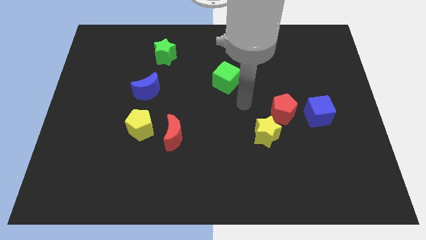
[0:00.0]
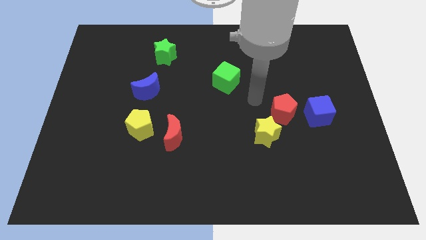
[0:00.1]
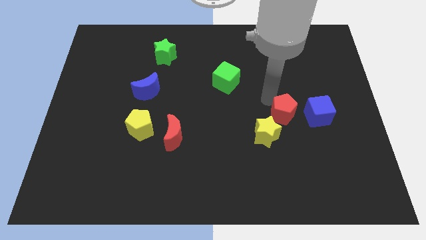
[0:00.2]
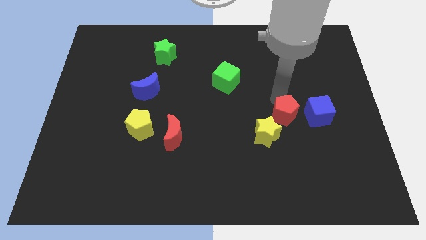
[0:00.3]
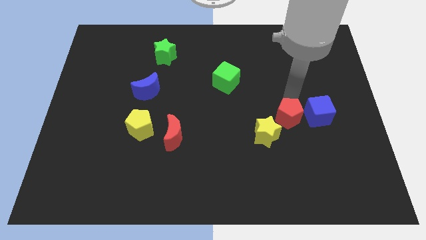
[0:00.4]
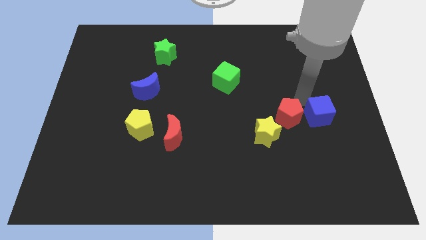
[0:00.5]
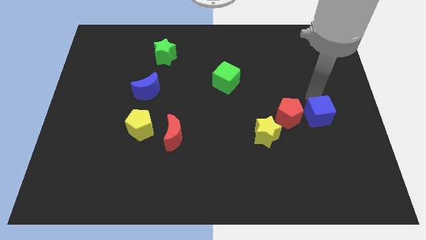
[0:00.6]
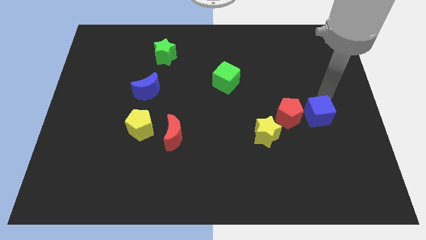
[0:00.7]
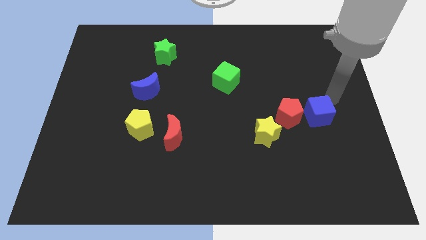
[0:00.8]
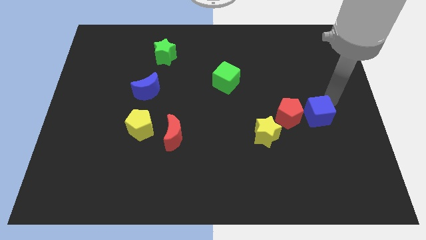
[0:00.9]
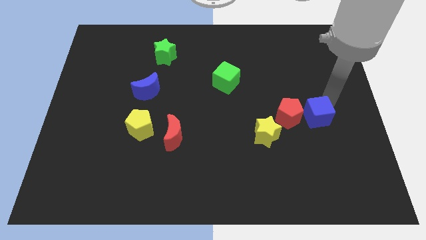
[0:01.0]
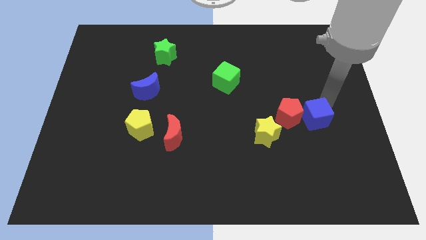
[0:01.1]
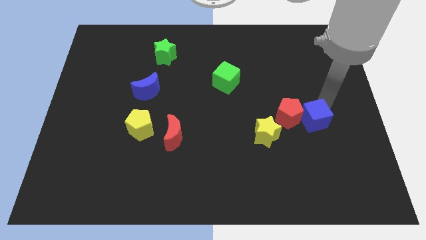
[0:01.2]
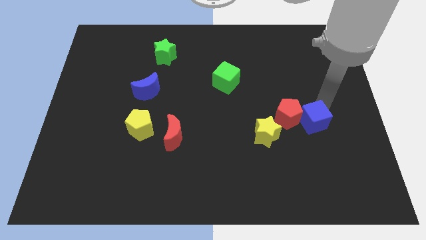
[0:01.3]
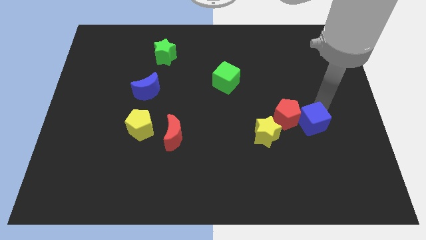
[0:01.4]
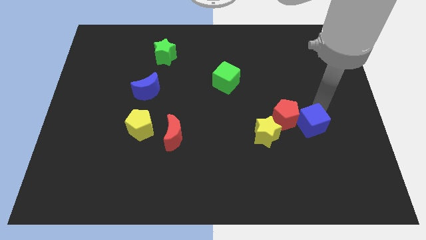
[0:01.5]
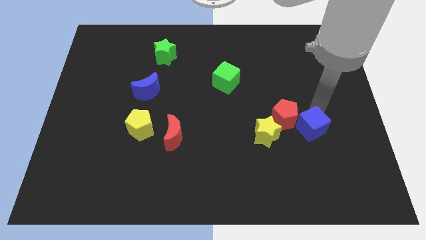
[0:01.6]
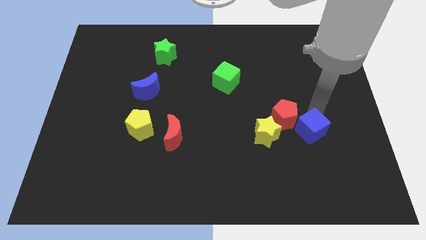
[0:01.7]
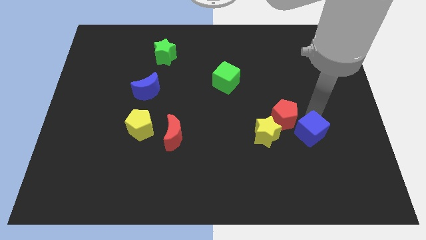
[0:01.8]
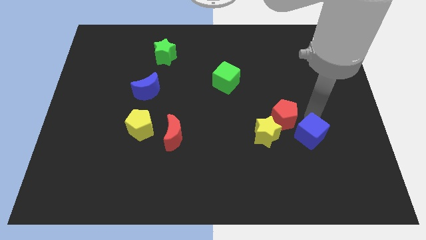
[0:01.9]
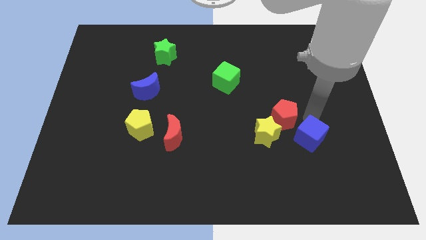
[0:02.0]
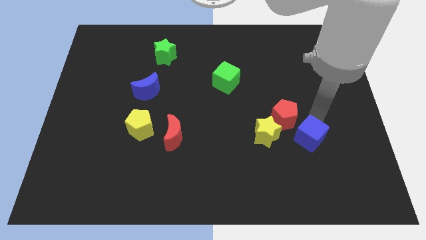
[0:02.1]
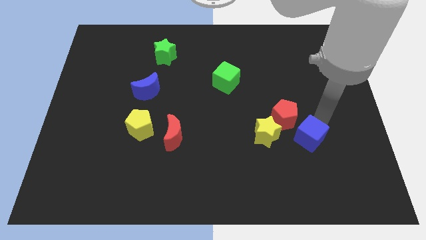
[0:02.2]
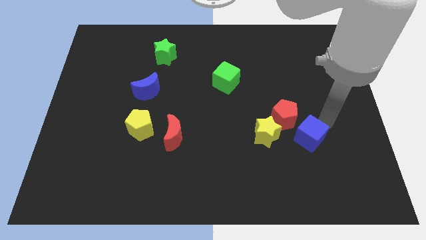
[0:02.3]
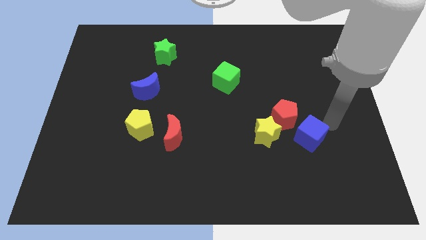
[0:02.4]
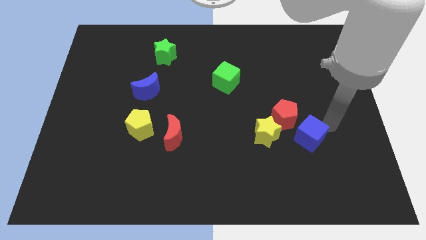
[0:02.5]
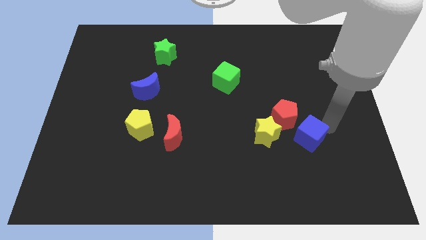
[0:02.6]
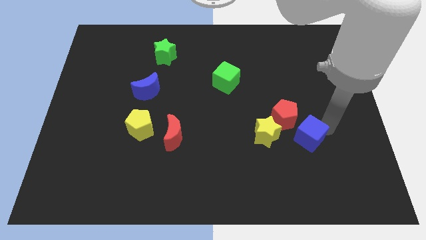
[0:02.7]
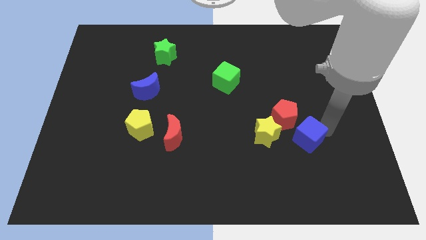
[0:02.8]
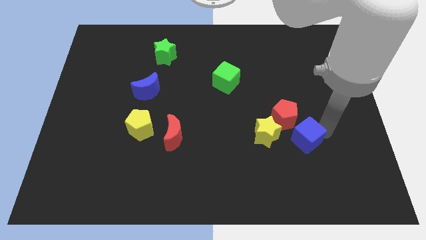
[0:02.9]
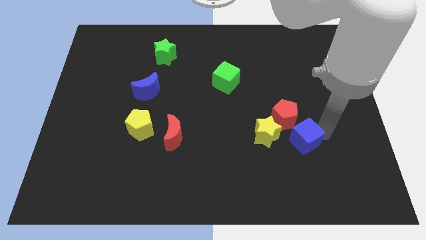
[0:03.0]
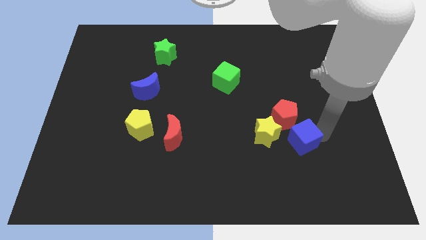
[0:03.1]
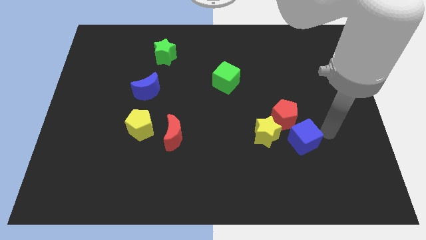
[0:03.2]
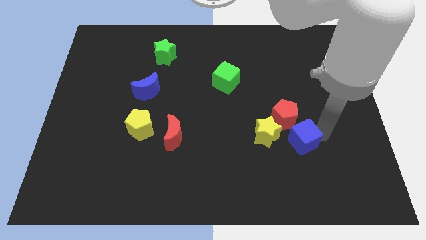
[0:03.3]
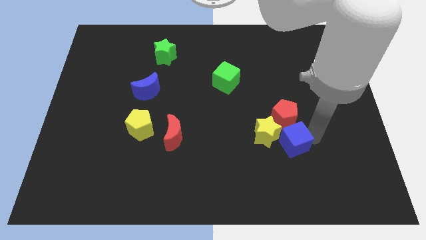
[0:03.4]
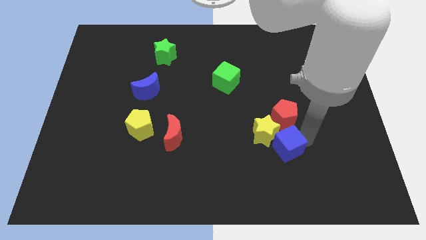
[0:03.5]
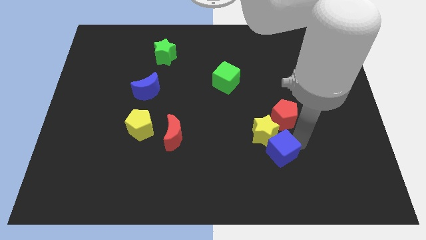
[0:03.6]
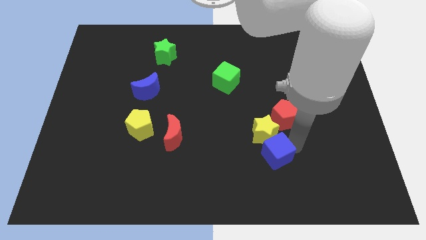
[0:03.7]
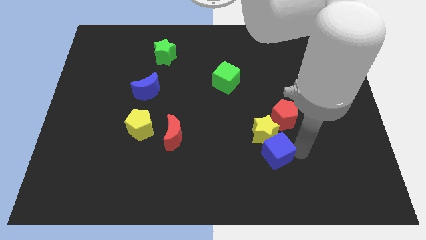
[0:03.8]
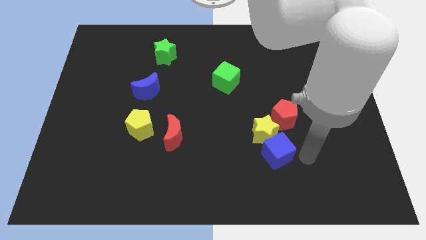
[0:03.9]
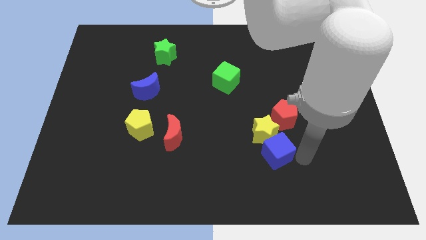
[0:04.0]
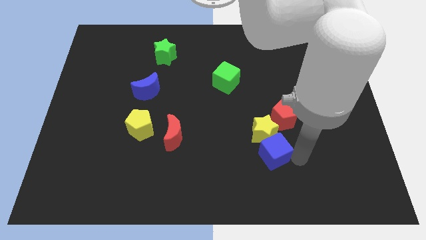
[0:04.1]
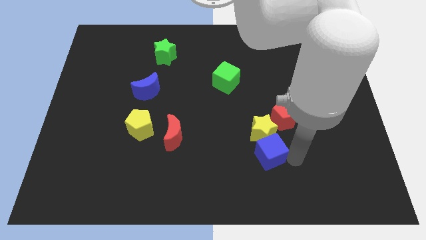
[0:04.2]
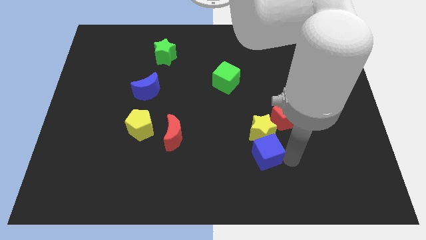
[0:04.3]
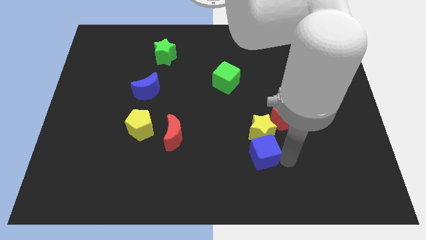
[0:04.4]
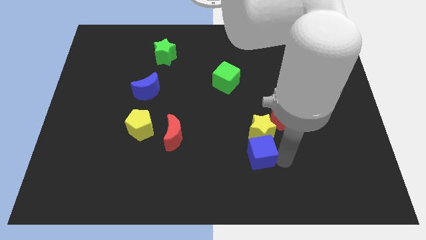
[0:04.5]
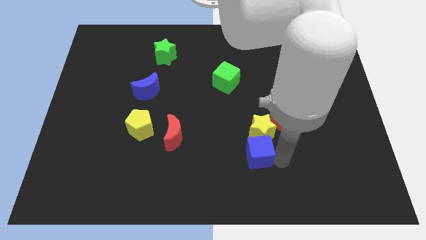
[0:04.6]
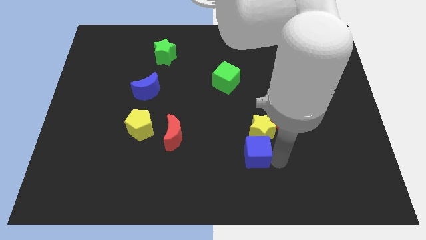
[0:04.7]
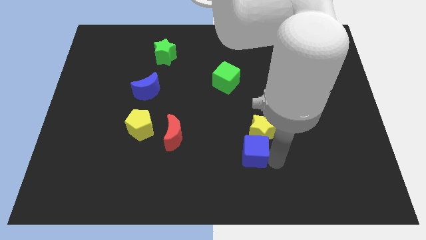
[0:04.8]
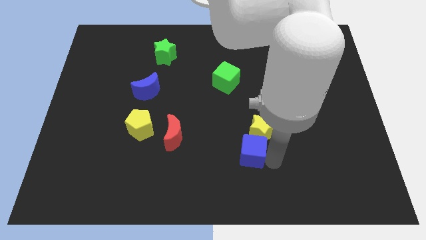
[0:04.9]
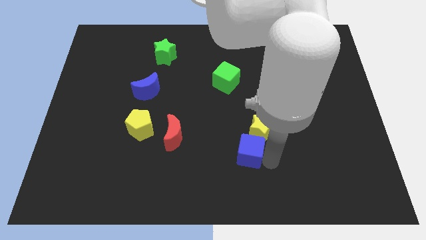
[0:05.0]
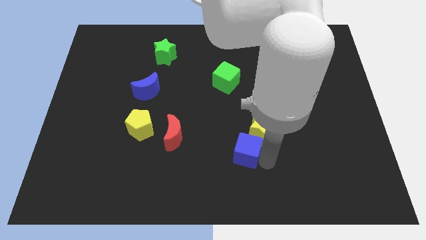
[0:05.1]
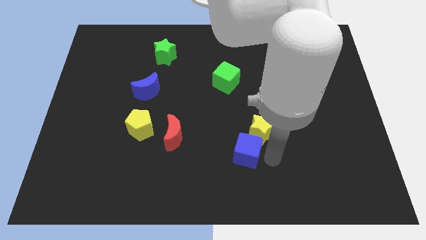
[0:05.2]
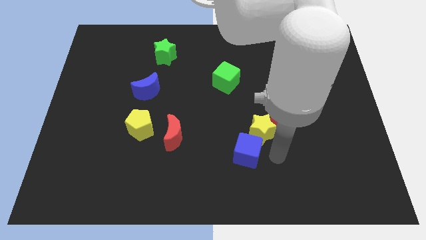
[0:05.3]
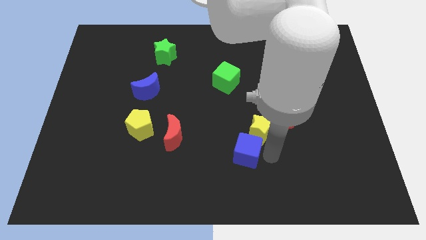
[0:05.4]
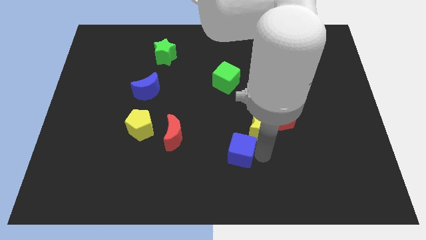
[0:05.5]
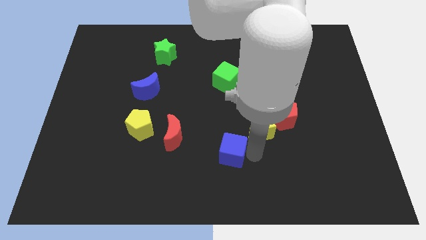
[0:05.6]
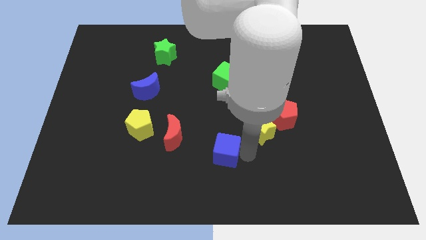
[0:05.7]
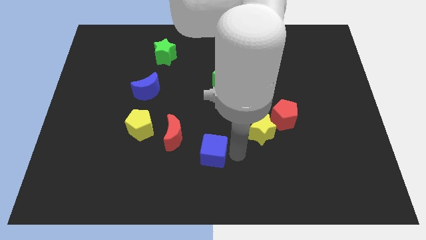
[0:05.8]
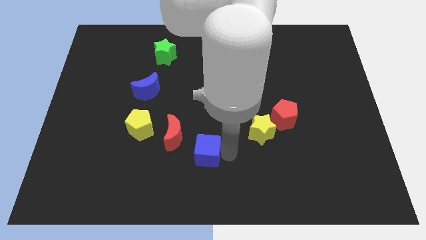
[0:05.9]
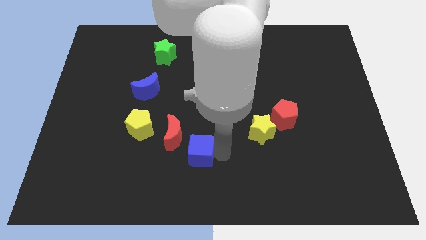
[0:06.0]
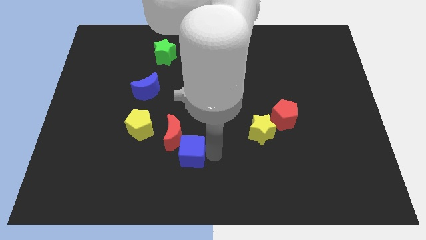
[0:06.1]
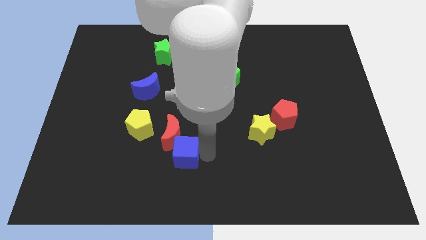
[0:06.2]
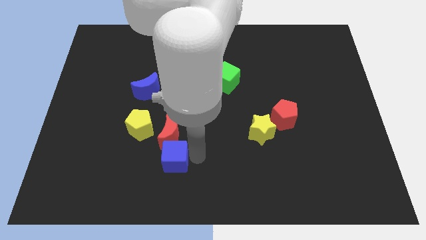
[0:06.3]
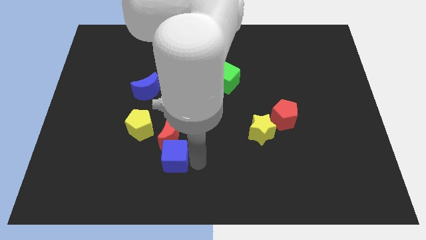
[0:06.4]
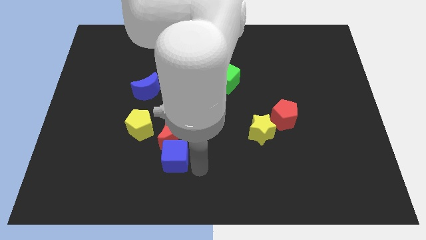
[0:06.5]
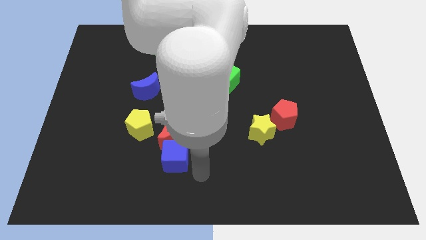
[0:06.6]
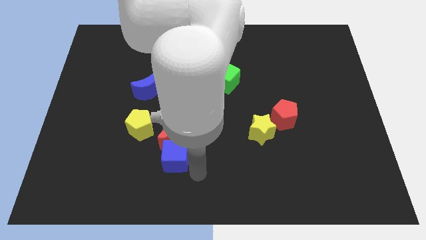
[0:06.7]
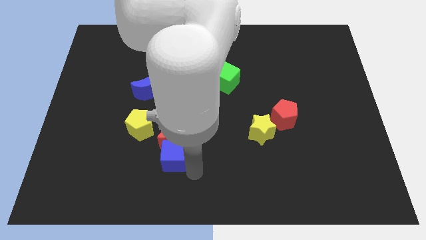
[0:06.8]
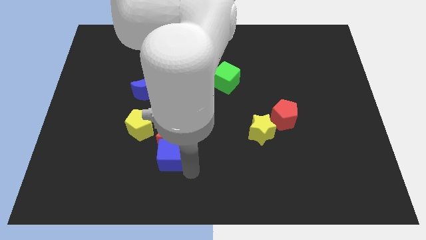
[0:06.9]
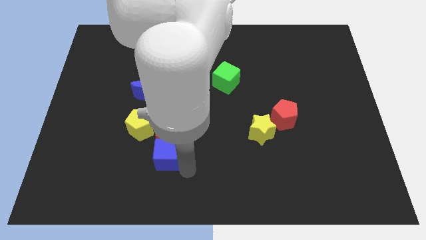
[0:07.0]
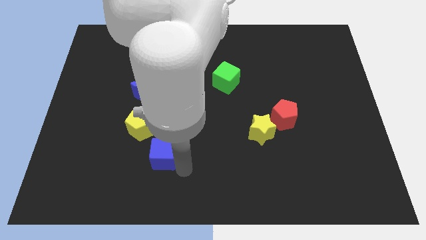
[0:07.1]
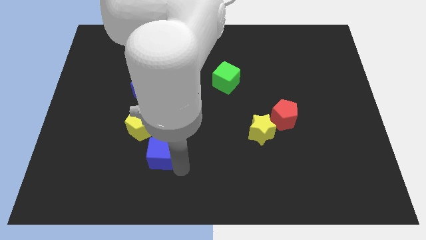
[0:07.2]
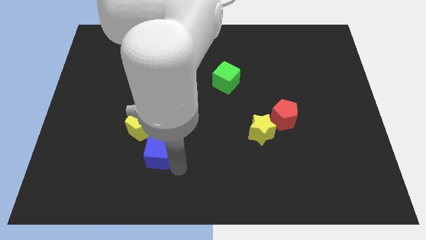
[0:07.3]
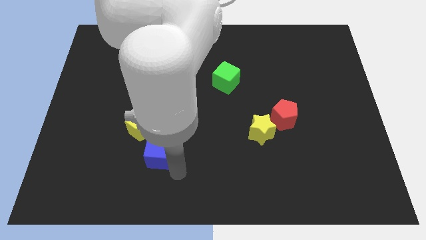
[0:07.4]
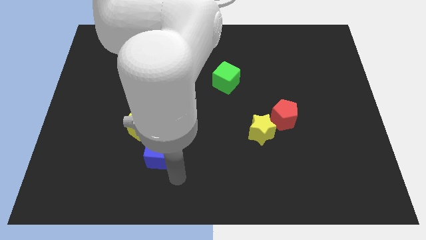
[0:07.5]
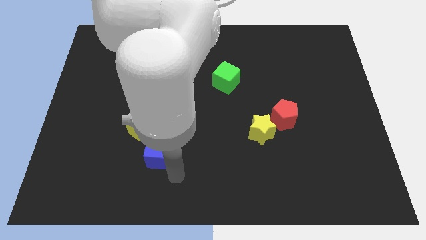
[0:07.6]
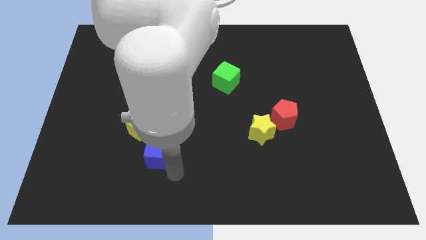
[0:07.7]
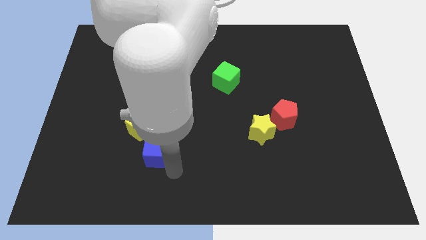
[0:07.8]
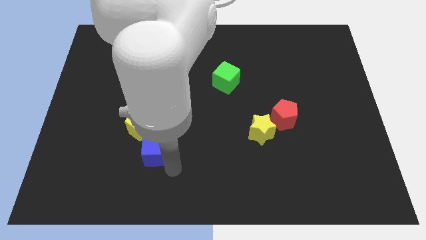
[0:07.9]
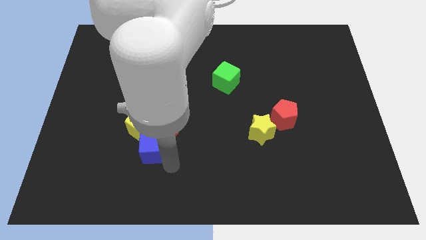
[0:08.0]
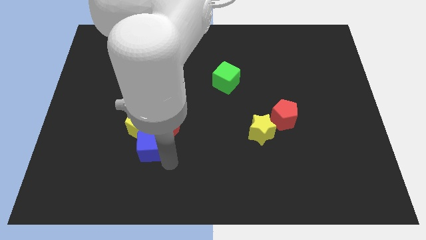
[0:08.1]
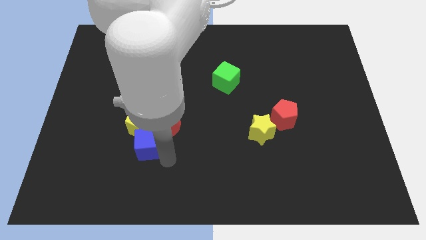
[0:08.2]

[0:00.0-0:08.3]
slide the blue cube to the bottom of the blue moon
